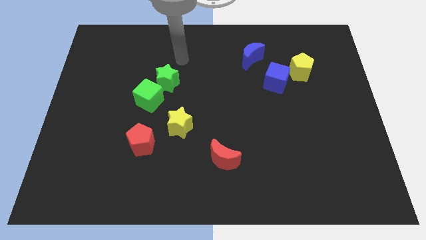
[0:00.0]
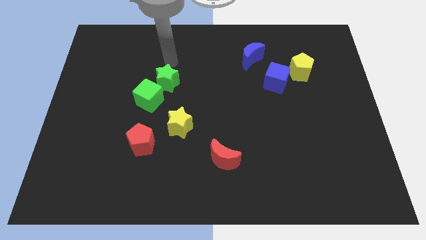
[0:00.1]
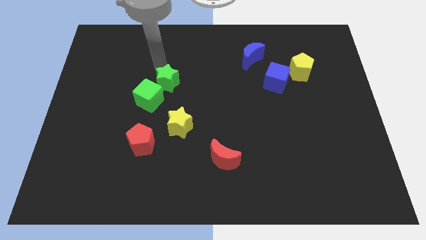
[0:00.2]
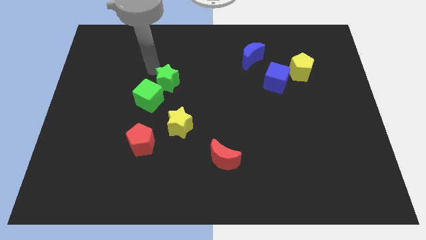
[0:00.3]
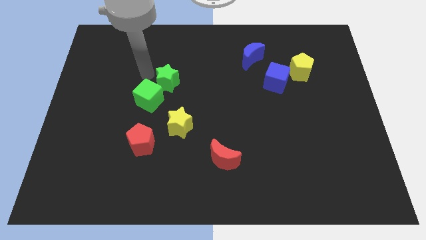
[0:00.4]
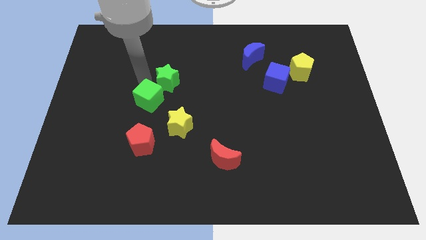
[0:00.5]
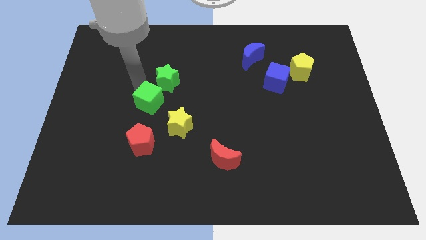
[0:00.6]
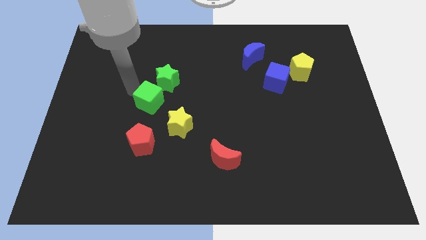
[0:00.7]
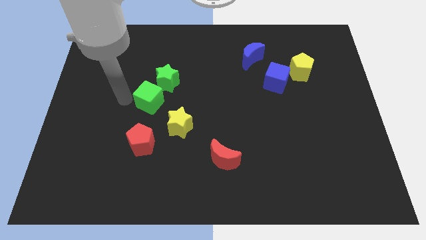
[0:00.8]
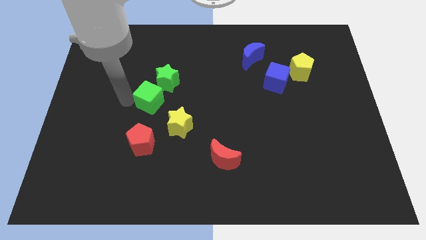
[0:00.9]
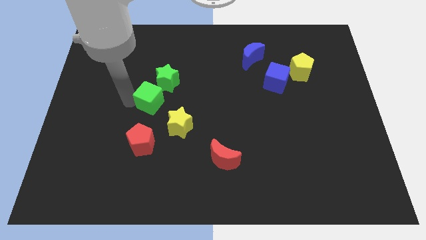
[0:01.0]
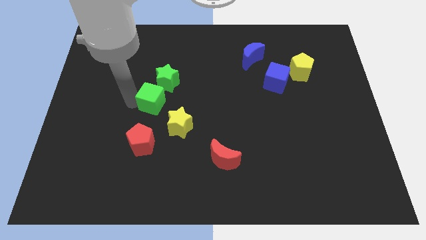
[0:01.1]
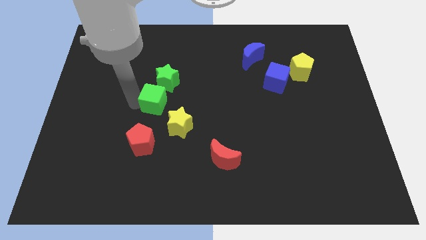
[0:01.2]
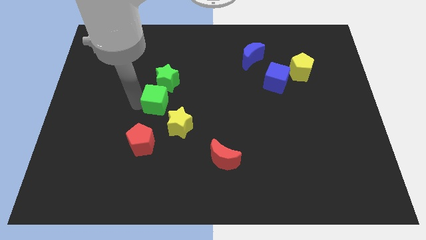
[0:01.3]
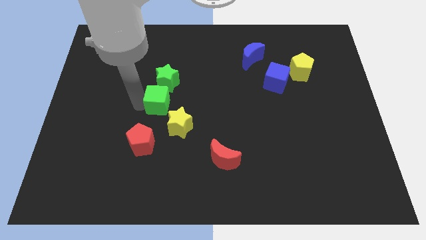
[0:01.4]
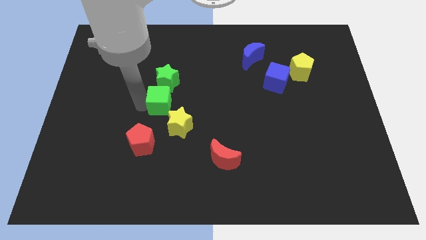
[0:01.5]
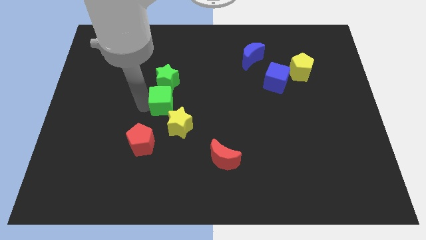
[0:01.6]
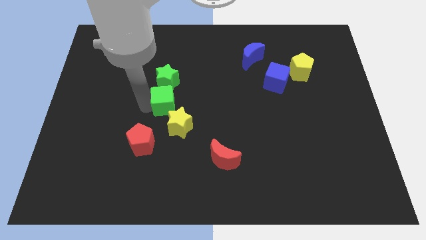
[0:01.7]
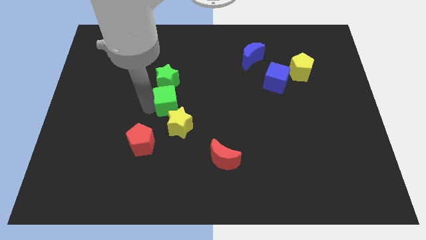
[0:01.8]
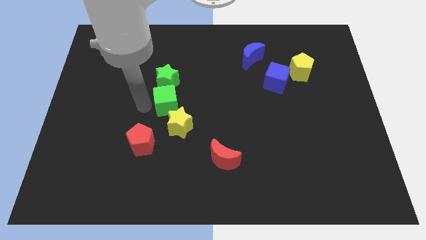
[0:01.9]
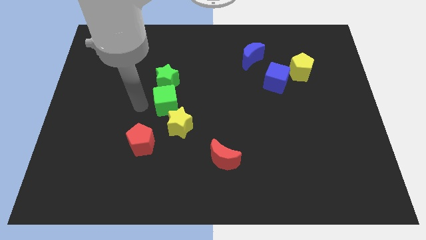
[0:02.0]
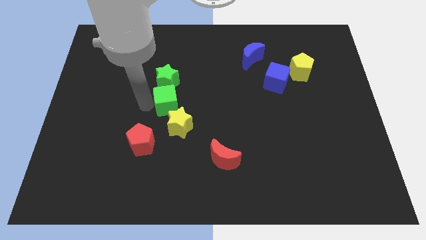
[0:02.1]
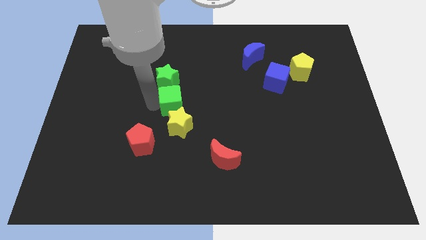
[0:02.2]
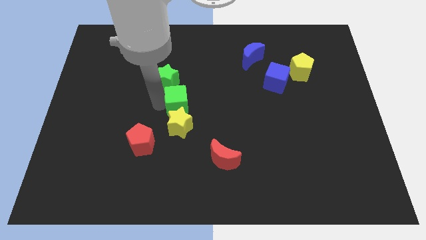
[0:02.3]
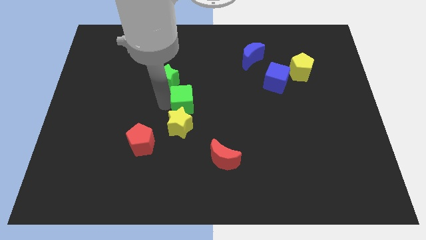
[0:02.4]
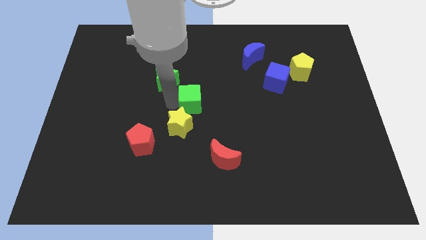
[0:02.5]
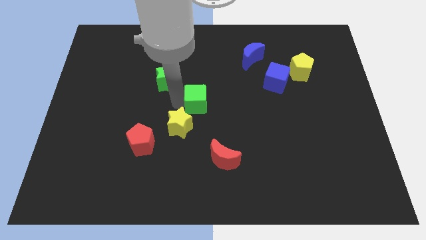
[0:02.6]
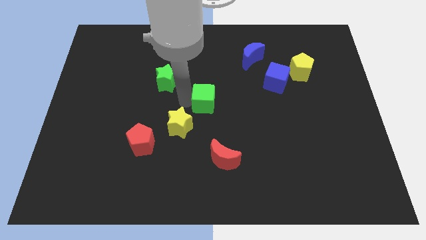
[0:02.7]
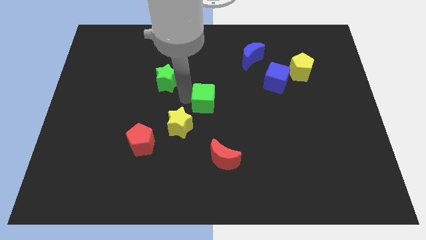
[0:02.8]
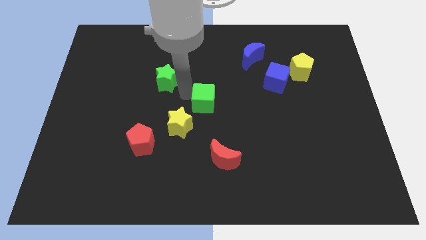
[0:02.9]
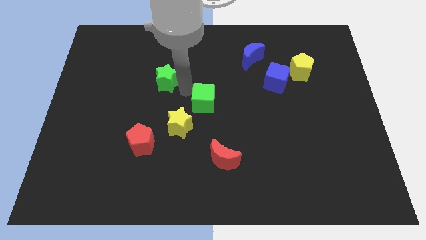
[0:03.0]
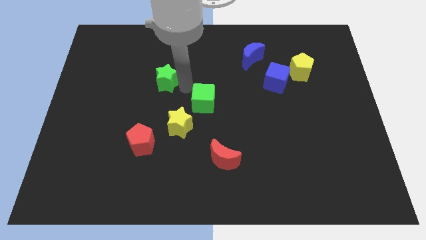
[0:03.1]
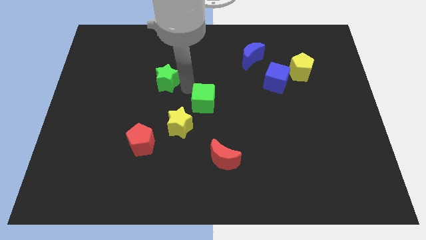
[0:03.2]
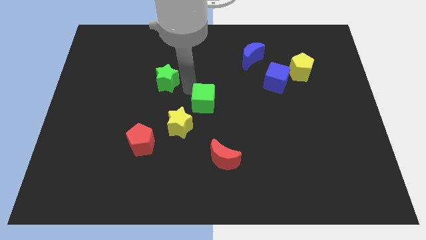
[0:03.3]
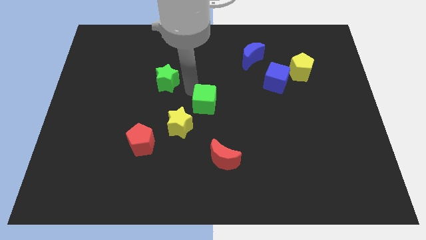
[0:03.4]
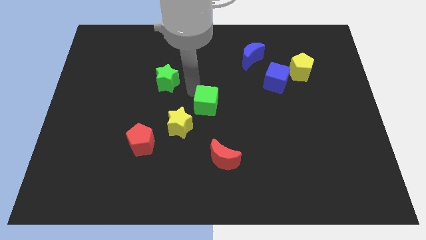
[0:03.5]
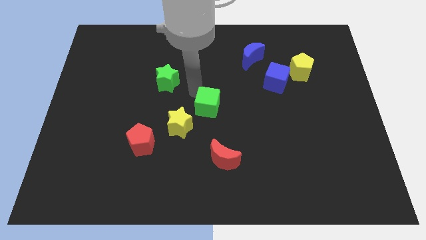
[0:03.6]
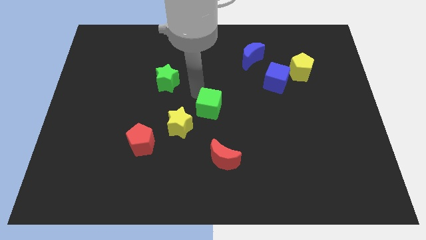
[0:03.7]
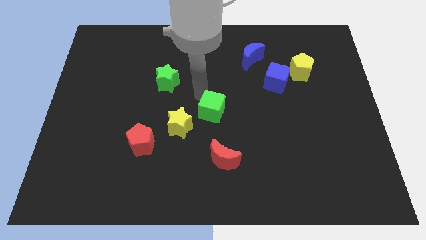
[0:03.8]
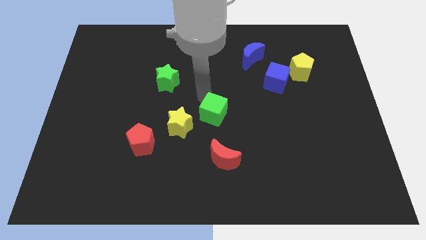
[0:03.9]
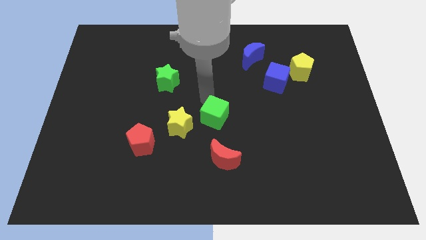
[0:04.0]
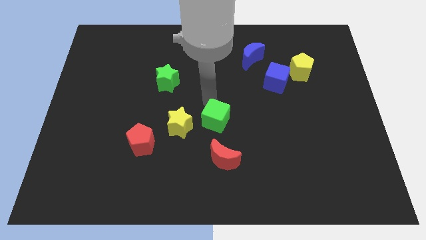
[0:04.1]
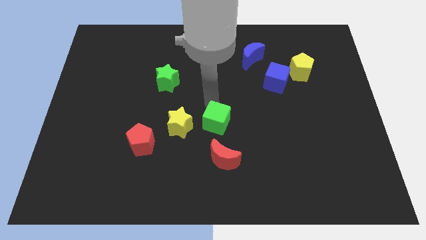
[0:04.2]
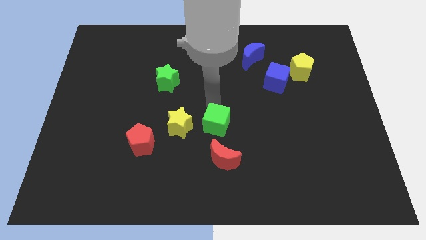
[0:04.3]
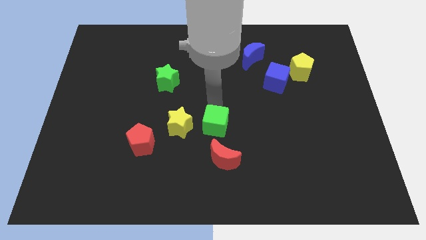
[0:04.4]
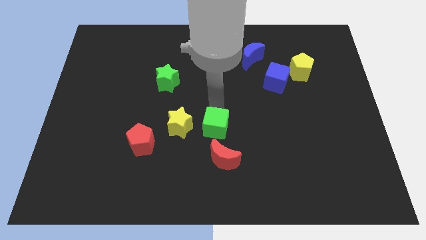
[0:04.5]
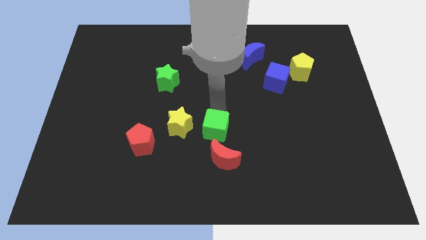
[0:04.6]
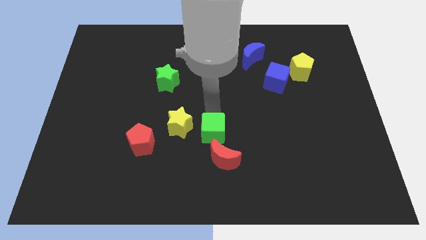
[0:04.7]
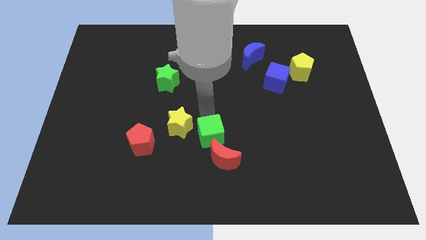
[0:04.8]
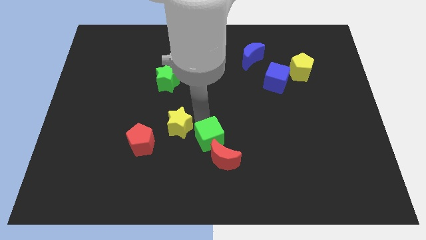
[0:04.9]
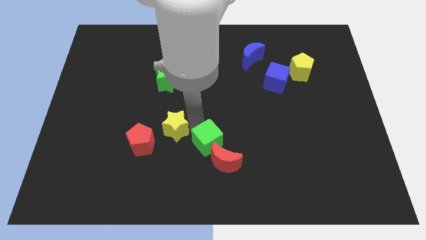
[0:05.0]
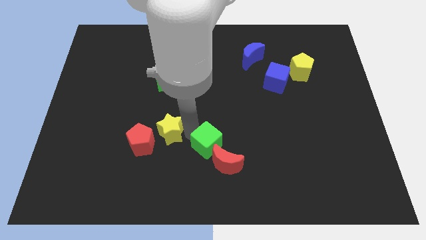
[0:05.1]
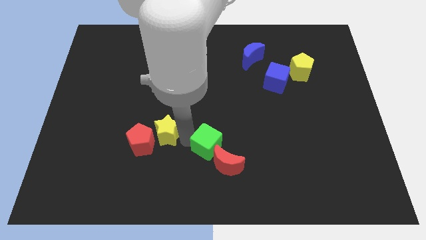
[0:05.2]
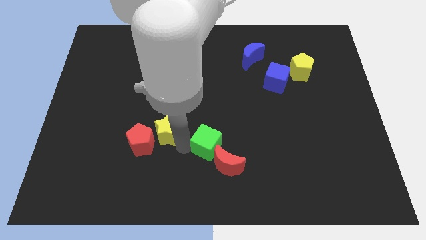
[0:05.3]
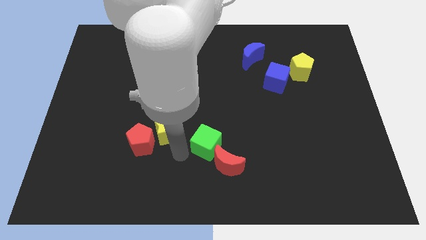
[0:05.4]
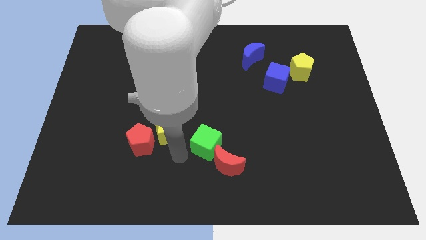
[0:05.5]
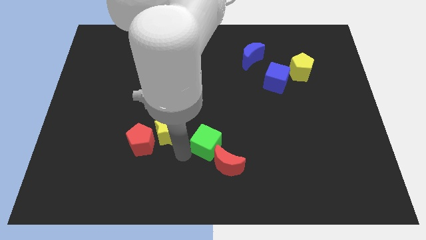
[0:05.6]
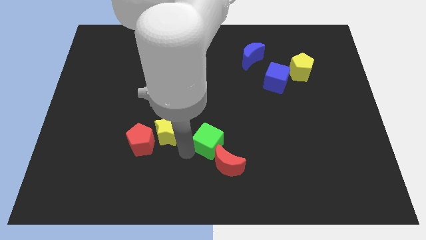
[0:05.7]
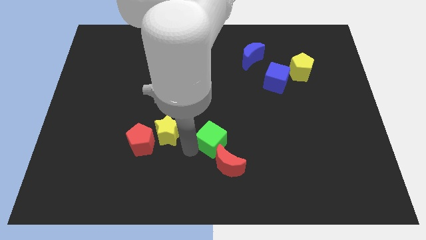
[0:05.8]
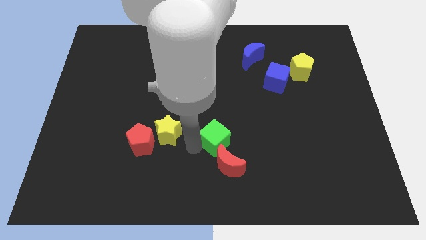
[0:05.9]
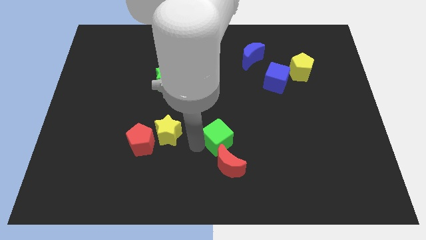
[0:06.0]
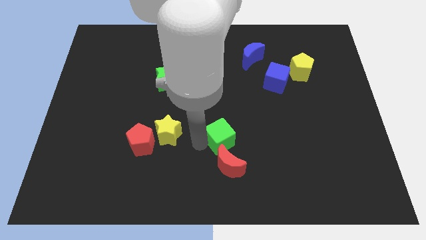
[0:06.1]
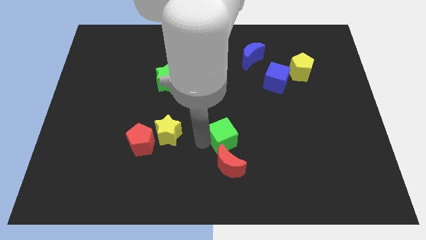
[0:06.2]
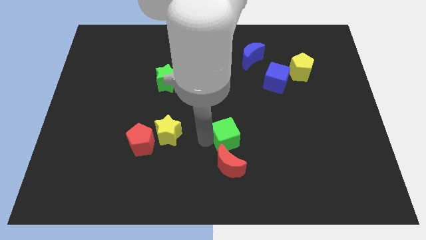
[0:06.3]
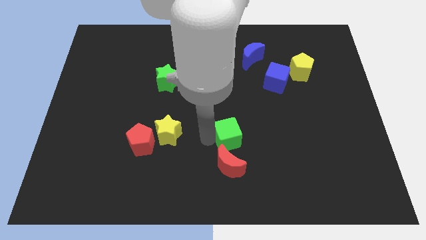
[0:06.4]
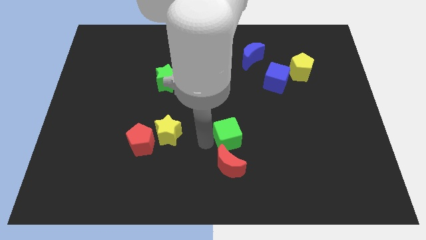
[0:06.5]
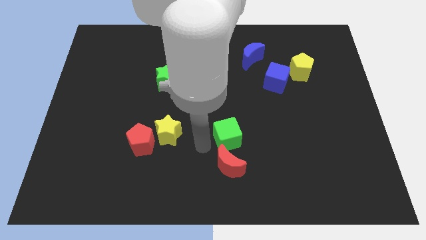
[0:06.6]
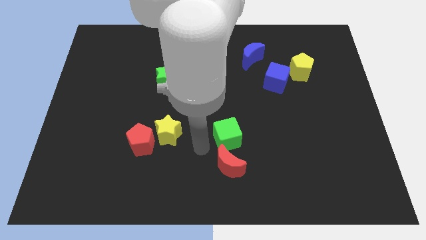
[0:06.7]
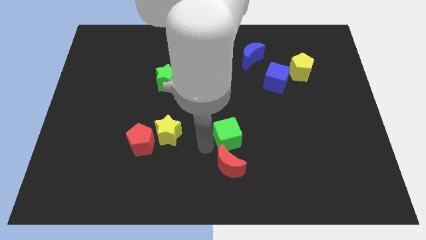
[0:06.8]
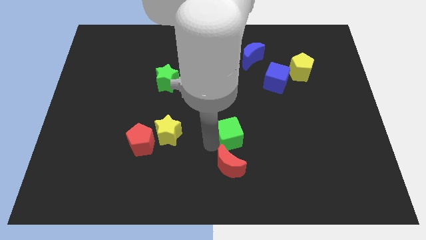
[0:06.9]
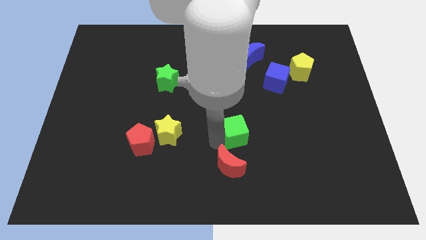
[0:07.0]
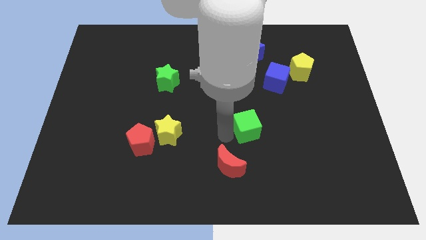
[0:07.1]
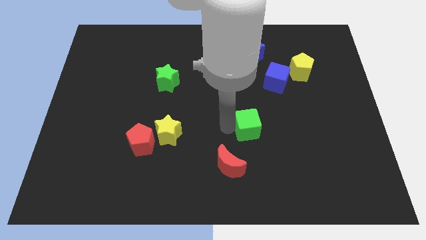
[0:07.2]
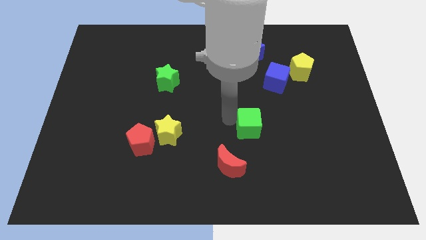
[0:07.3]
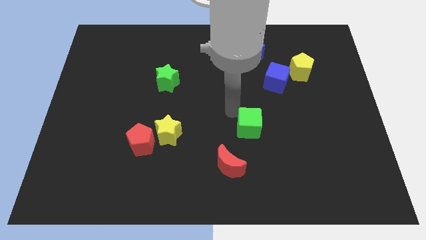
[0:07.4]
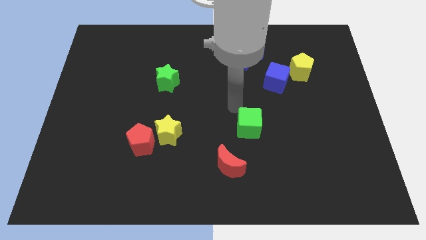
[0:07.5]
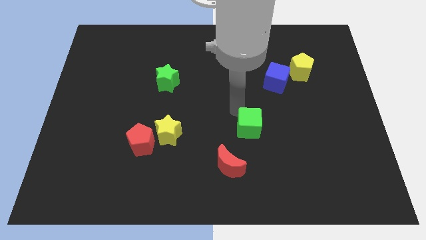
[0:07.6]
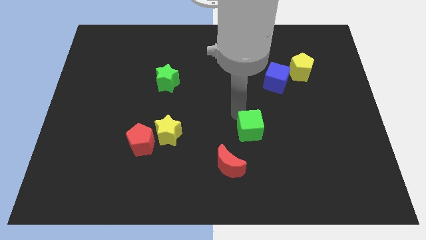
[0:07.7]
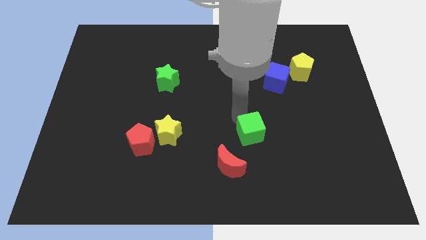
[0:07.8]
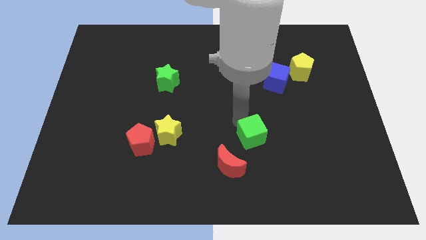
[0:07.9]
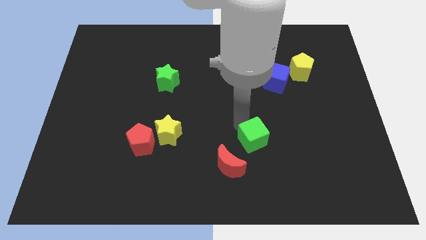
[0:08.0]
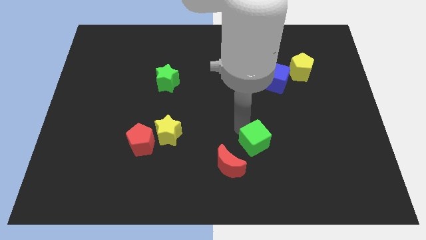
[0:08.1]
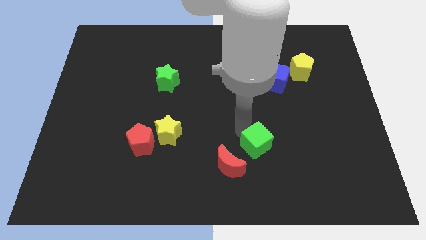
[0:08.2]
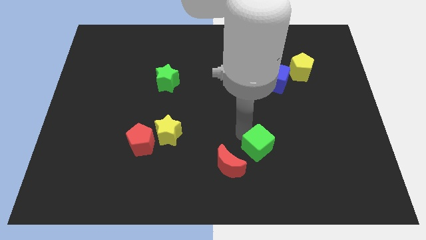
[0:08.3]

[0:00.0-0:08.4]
put the green cube to the right of the red moon
